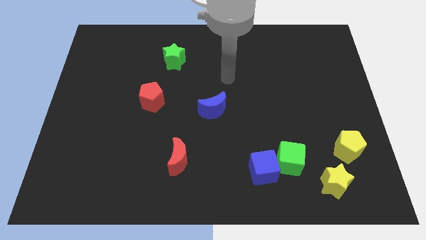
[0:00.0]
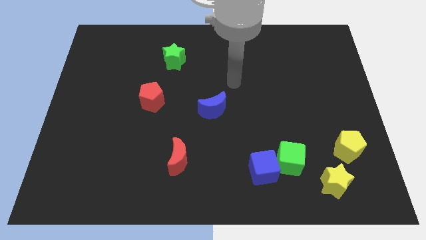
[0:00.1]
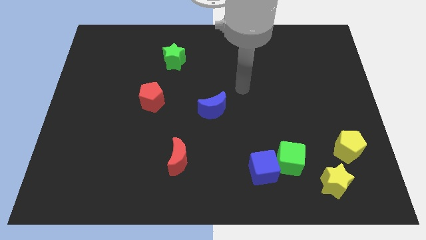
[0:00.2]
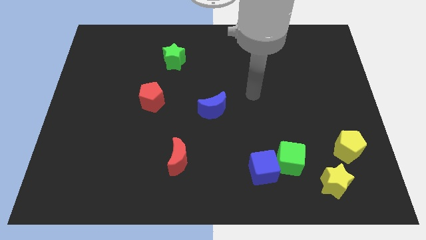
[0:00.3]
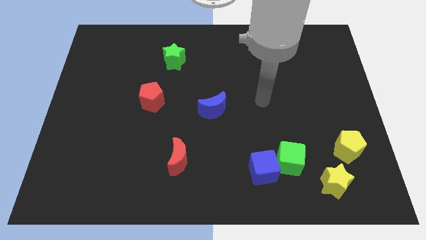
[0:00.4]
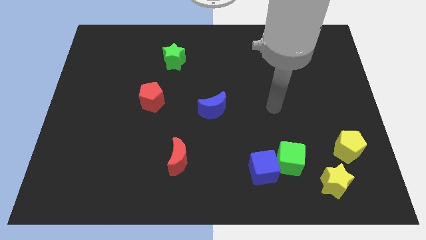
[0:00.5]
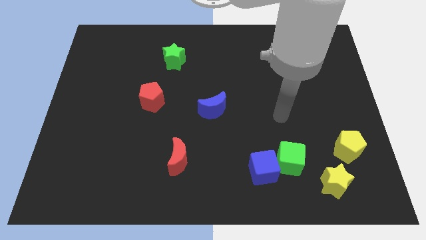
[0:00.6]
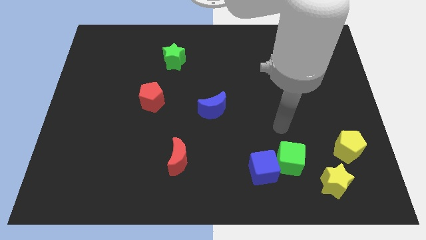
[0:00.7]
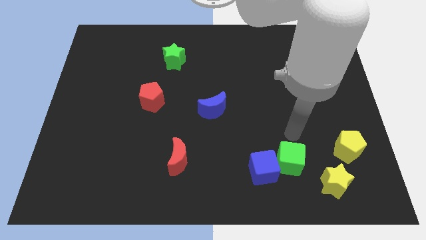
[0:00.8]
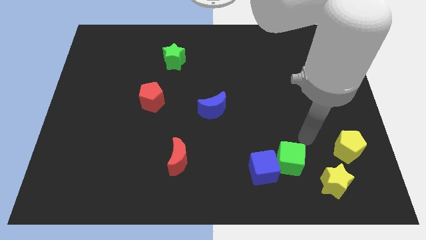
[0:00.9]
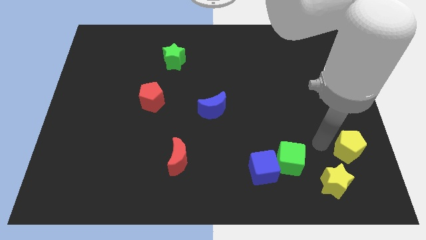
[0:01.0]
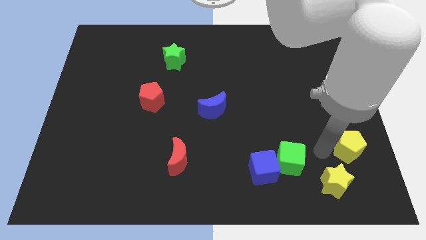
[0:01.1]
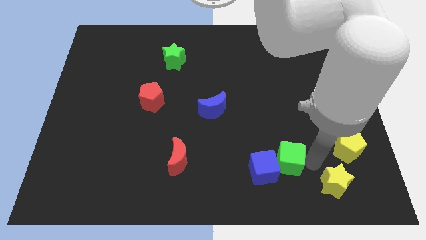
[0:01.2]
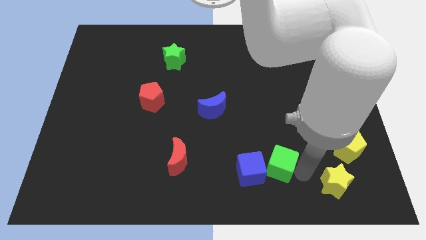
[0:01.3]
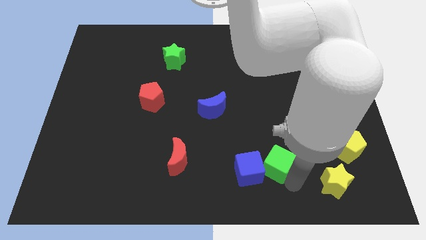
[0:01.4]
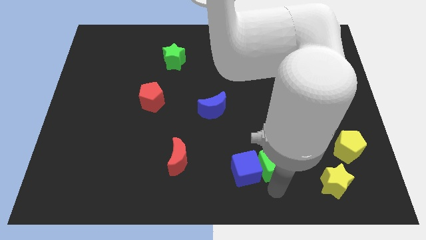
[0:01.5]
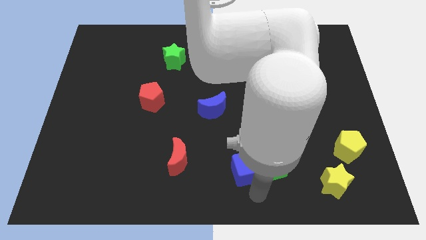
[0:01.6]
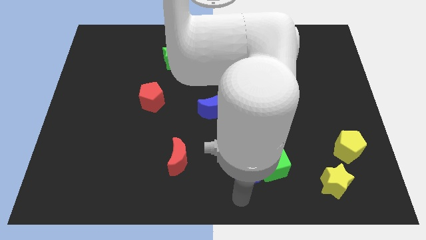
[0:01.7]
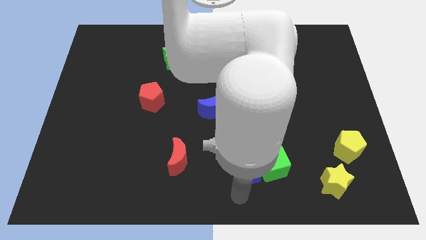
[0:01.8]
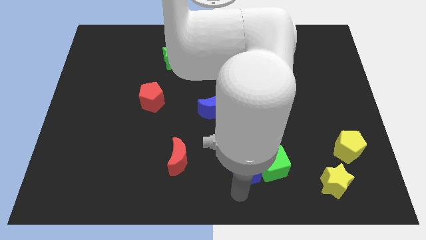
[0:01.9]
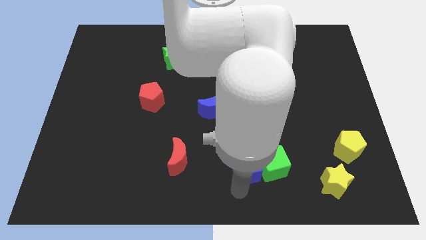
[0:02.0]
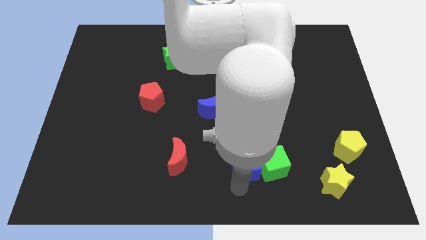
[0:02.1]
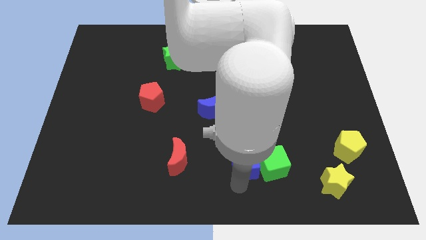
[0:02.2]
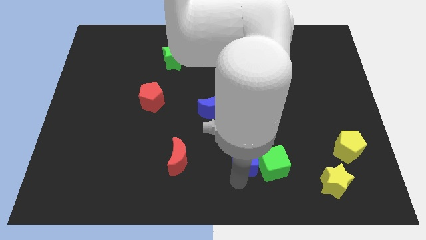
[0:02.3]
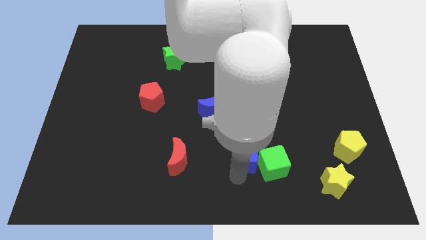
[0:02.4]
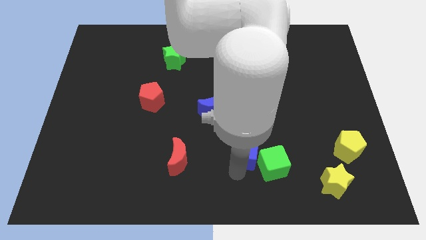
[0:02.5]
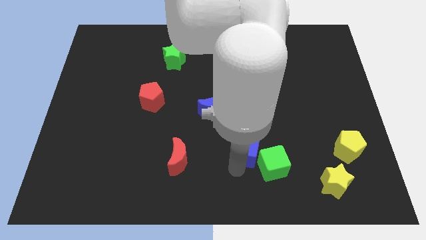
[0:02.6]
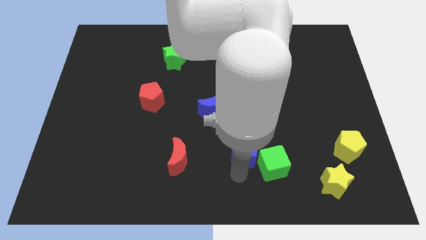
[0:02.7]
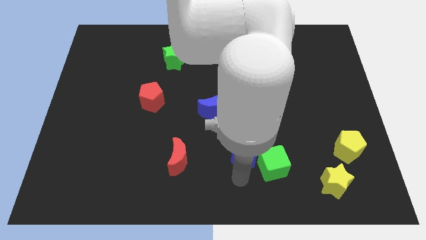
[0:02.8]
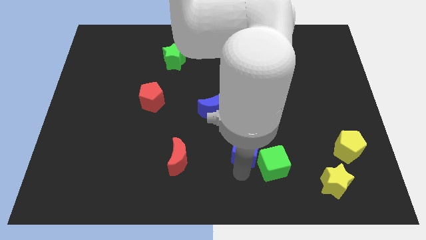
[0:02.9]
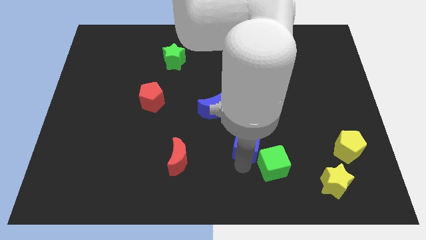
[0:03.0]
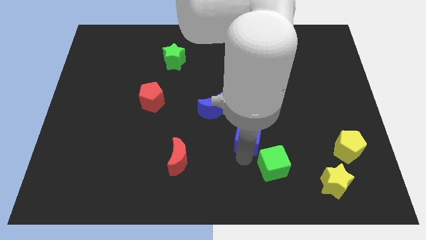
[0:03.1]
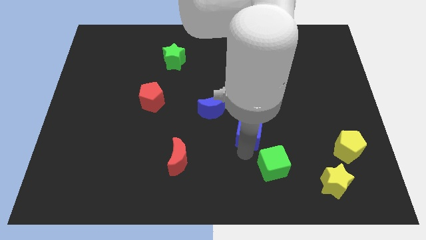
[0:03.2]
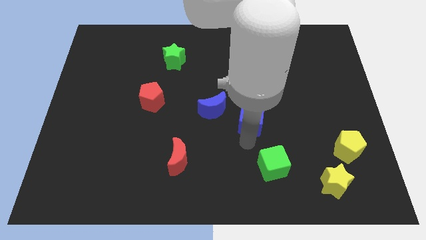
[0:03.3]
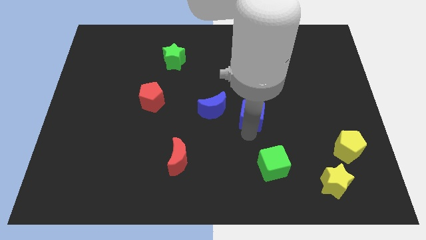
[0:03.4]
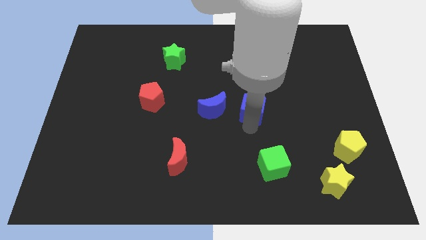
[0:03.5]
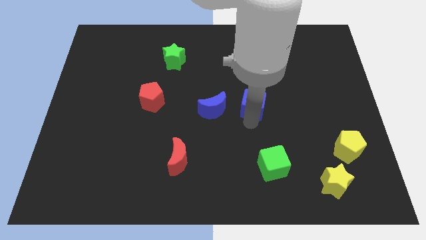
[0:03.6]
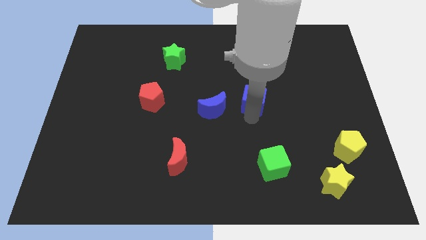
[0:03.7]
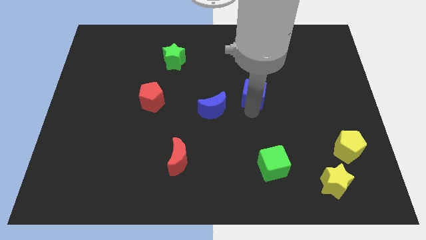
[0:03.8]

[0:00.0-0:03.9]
push the blue cube up

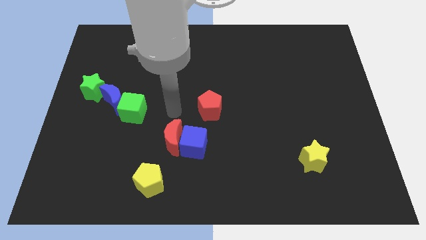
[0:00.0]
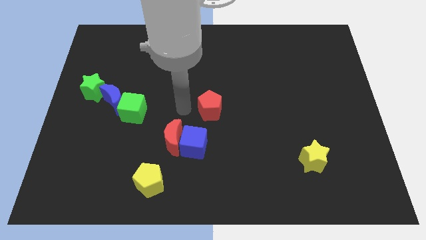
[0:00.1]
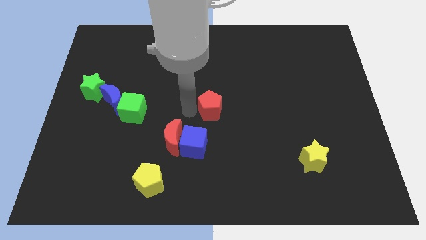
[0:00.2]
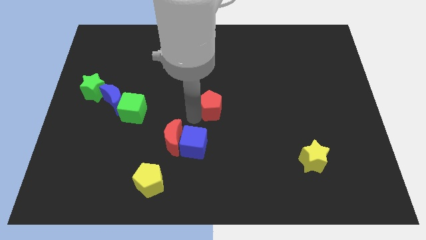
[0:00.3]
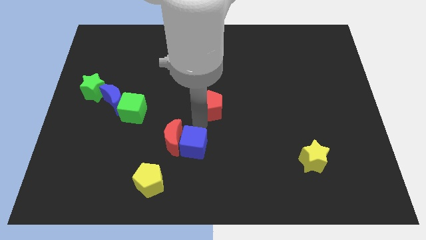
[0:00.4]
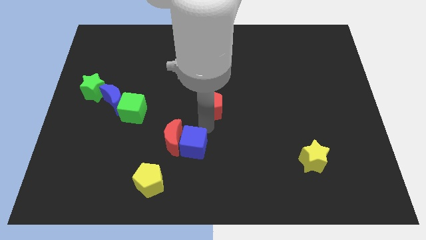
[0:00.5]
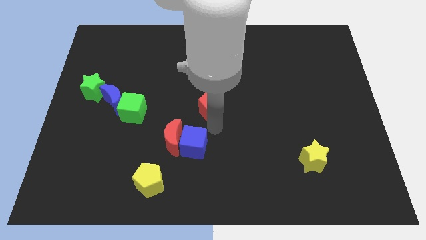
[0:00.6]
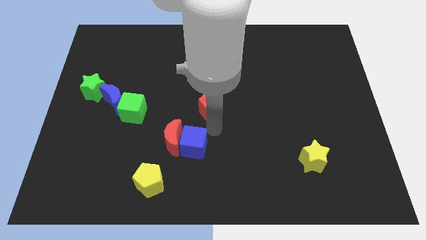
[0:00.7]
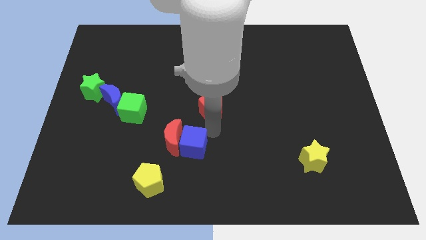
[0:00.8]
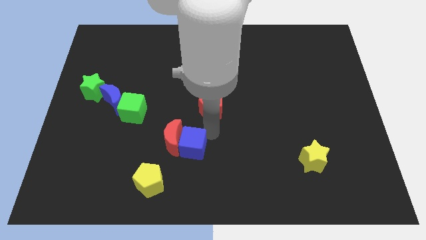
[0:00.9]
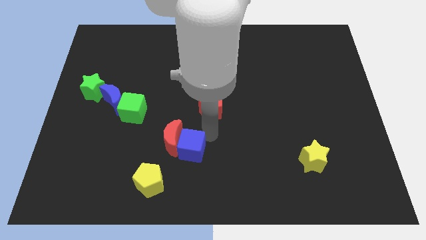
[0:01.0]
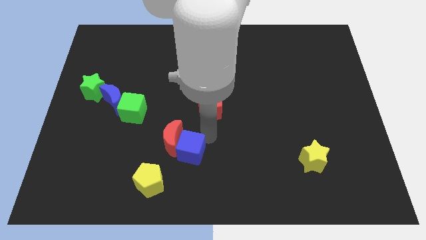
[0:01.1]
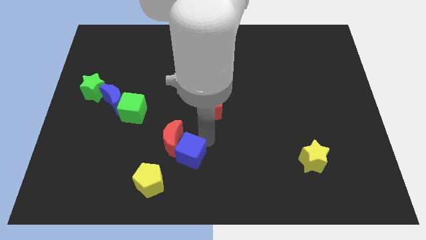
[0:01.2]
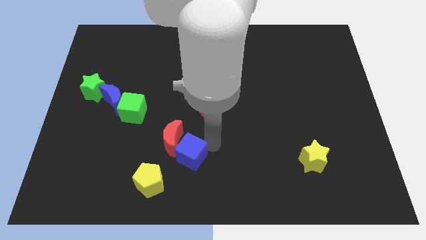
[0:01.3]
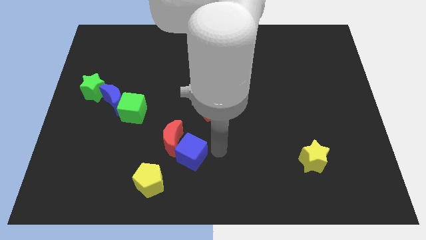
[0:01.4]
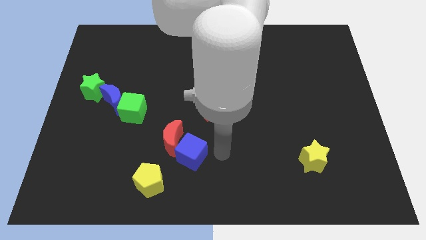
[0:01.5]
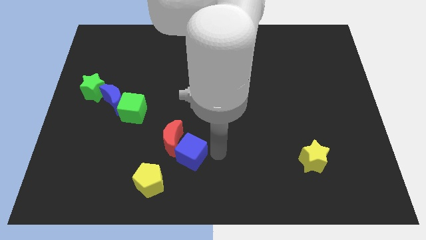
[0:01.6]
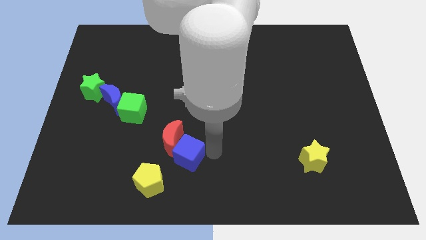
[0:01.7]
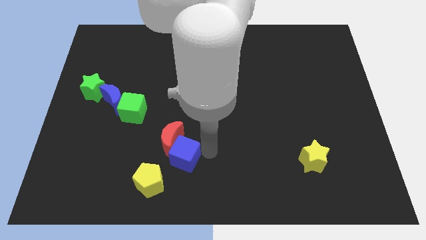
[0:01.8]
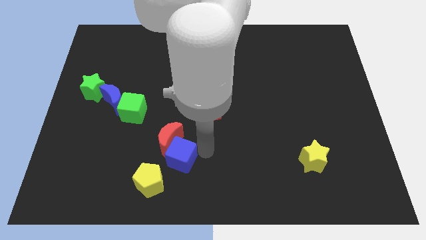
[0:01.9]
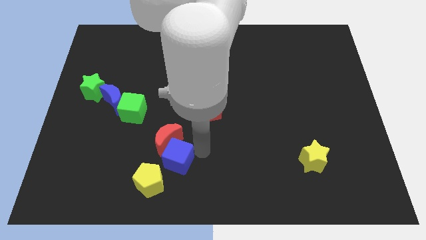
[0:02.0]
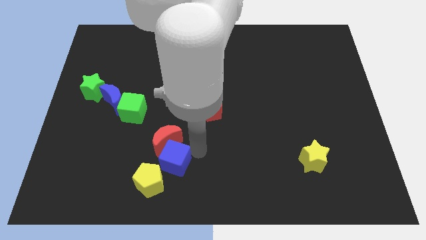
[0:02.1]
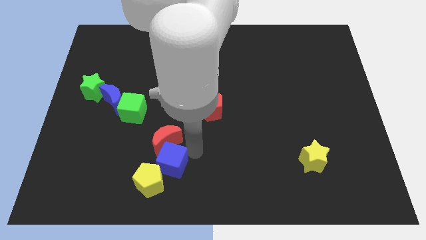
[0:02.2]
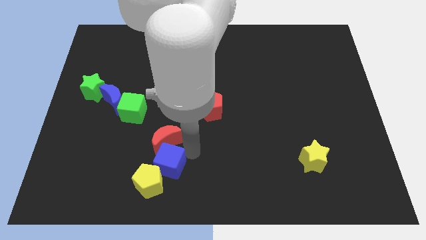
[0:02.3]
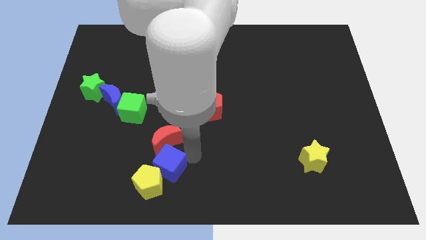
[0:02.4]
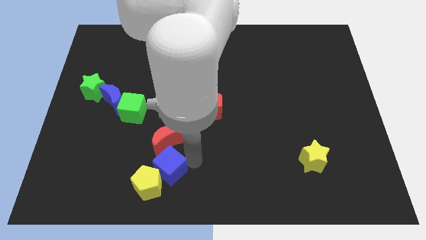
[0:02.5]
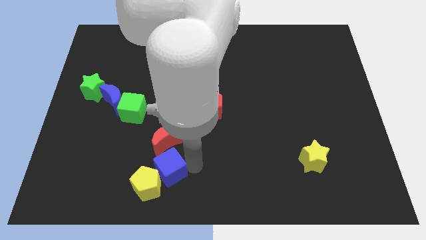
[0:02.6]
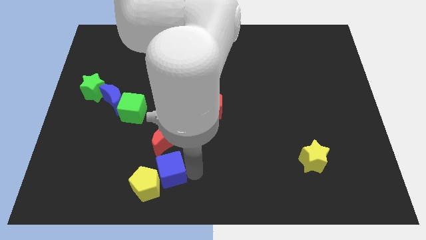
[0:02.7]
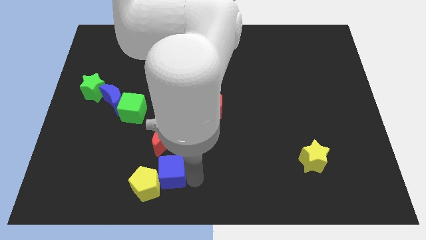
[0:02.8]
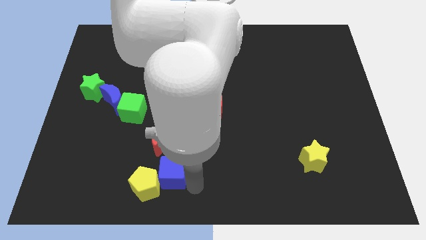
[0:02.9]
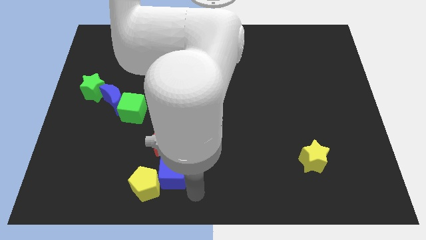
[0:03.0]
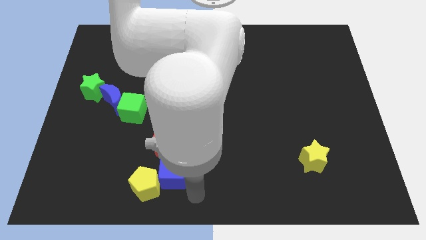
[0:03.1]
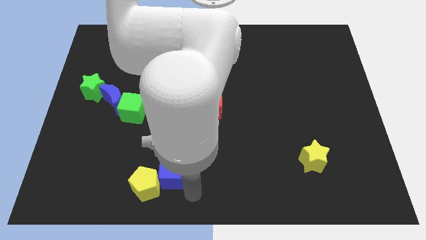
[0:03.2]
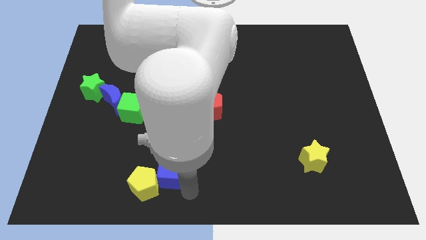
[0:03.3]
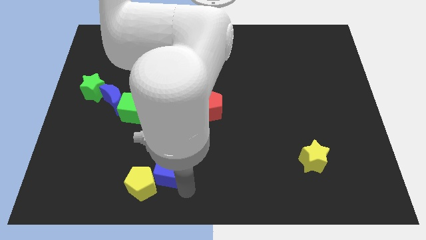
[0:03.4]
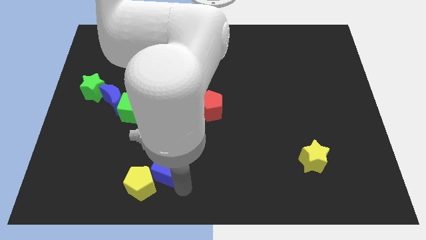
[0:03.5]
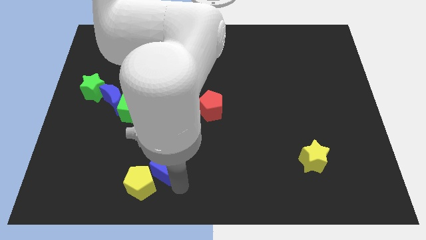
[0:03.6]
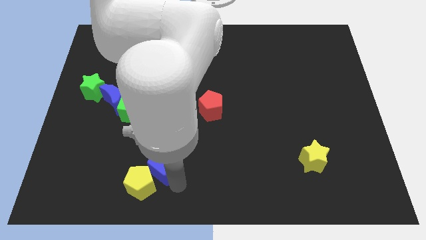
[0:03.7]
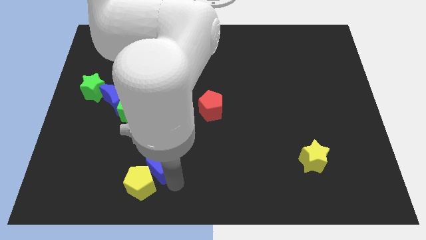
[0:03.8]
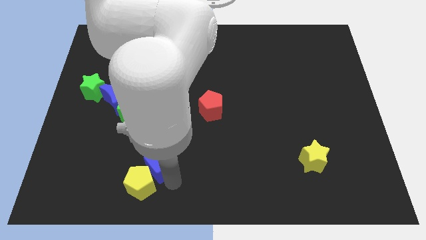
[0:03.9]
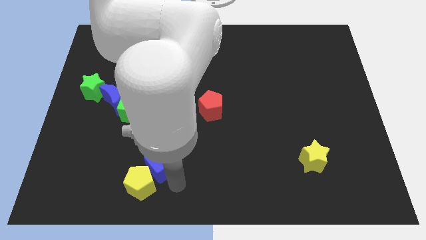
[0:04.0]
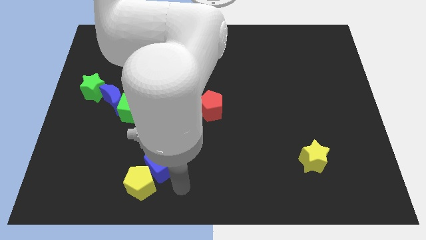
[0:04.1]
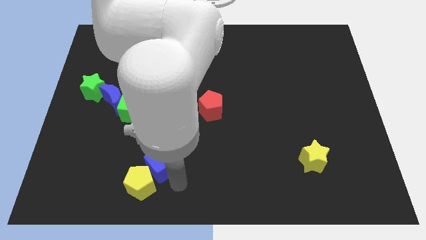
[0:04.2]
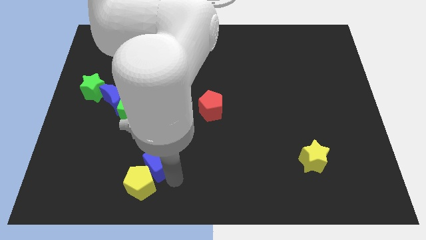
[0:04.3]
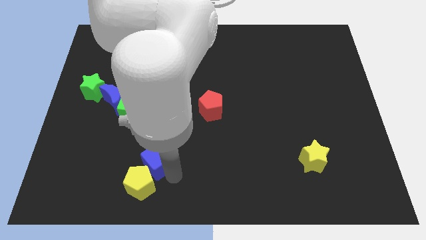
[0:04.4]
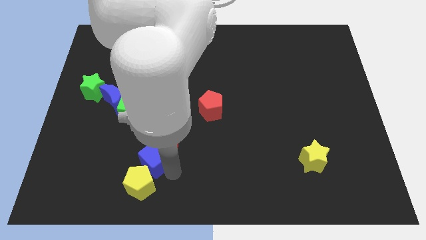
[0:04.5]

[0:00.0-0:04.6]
move the blue cube somewhat to the left
